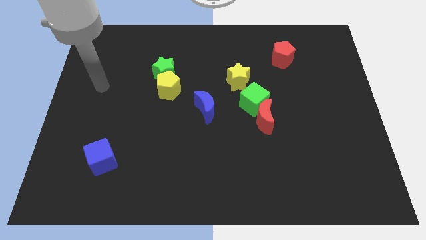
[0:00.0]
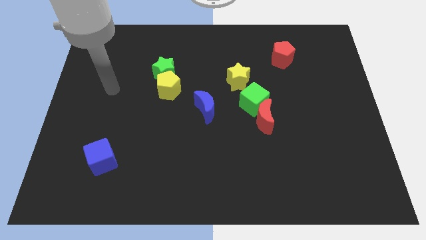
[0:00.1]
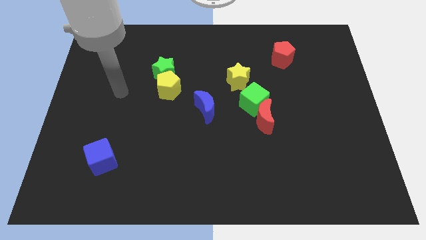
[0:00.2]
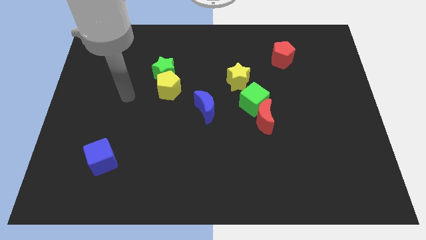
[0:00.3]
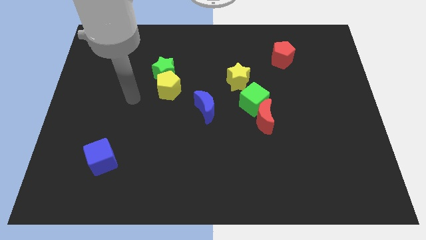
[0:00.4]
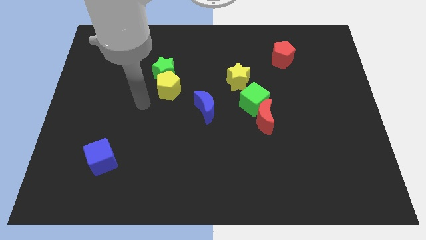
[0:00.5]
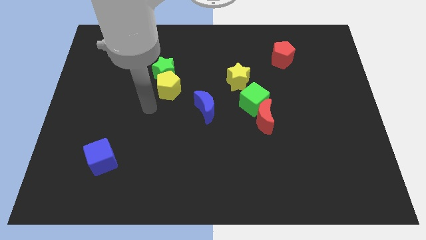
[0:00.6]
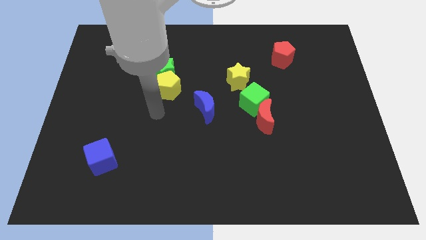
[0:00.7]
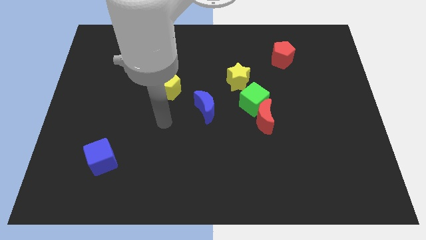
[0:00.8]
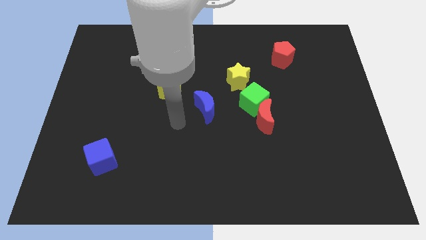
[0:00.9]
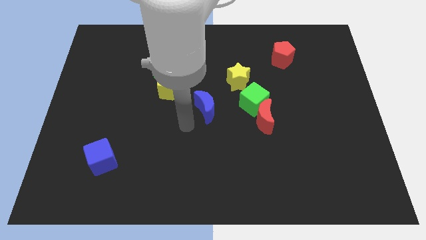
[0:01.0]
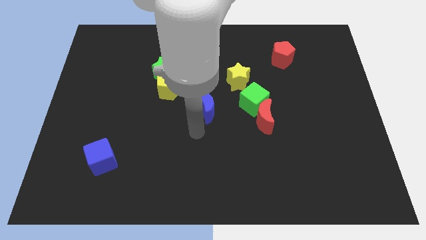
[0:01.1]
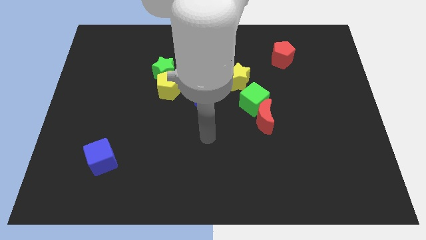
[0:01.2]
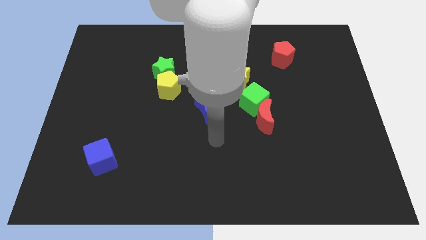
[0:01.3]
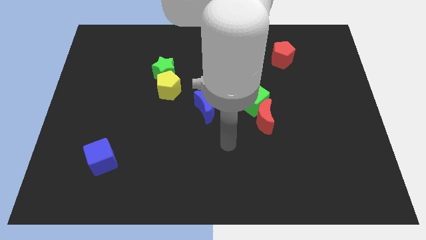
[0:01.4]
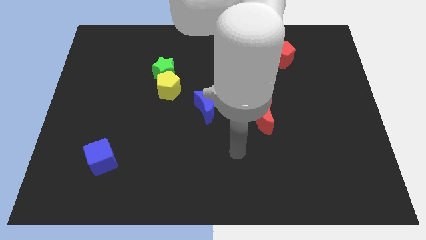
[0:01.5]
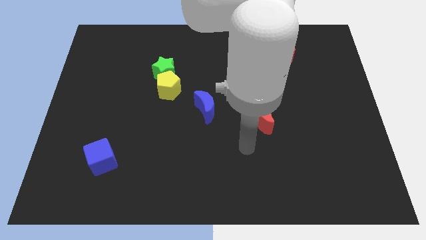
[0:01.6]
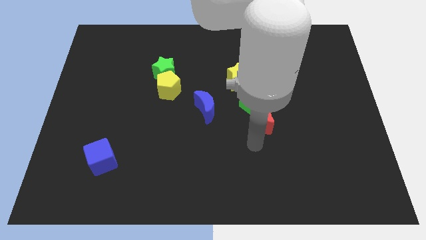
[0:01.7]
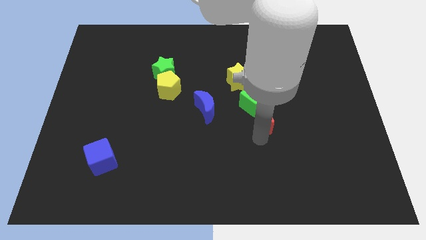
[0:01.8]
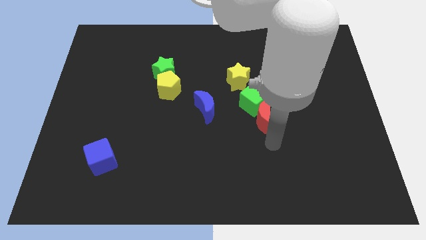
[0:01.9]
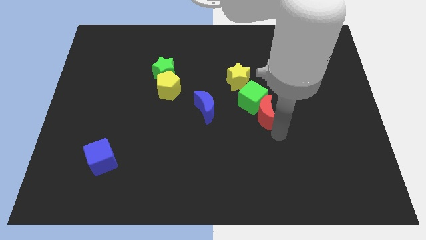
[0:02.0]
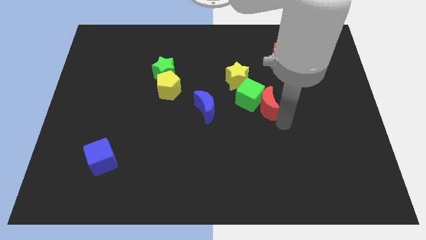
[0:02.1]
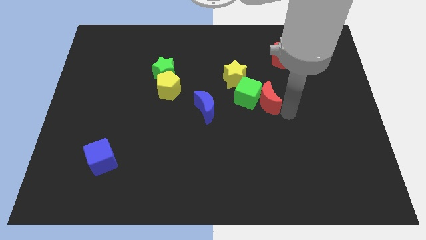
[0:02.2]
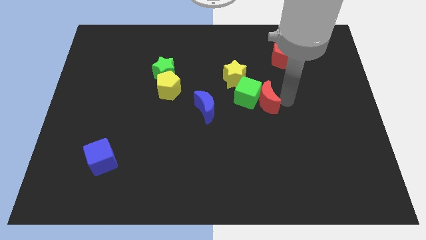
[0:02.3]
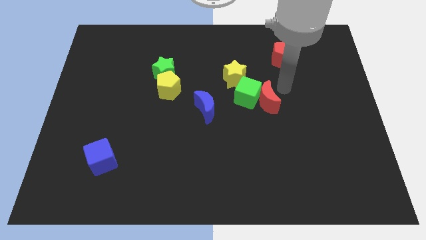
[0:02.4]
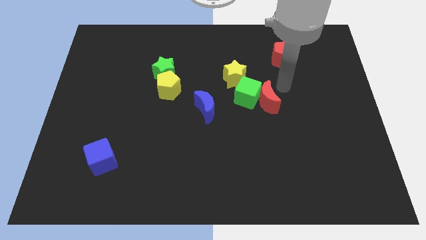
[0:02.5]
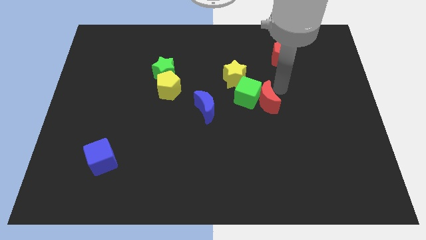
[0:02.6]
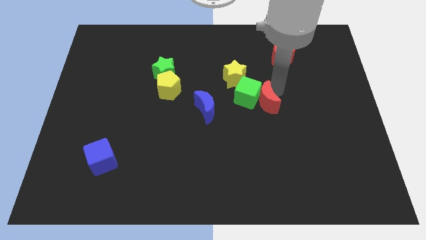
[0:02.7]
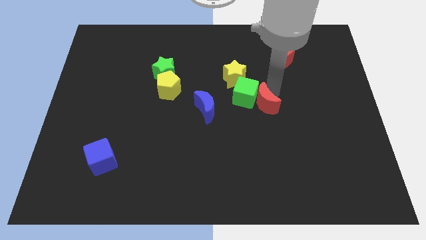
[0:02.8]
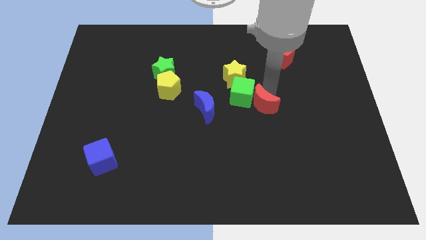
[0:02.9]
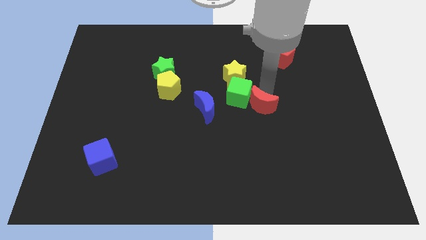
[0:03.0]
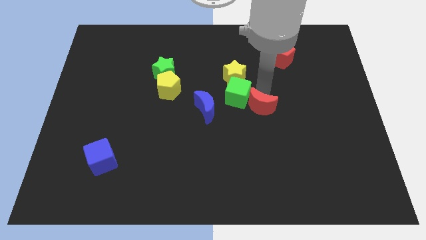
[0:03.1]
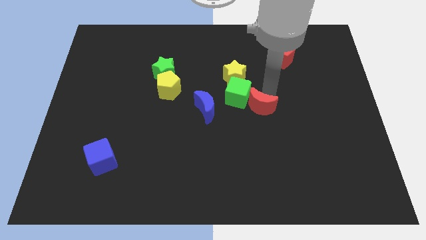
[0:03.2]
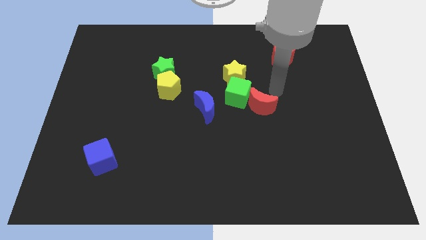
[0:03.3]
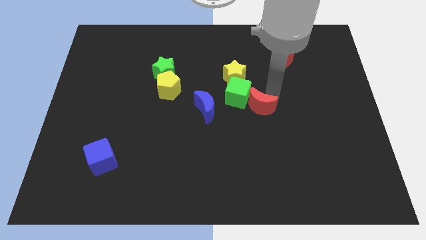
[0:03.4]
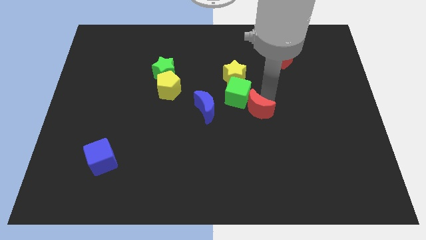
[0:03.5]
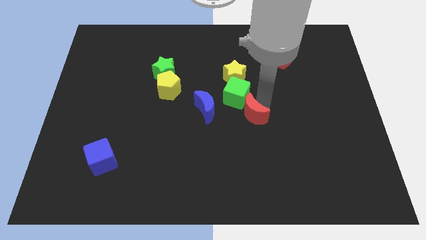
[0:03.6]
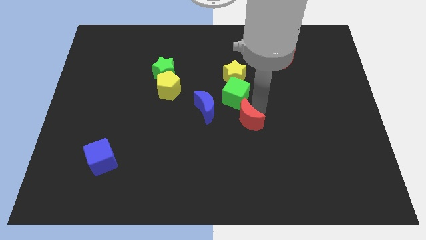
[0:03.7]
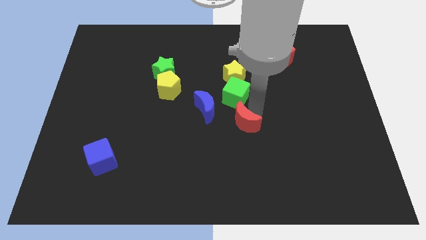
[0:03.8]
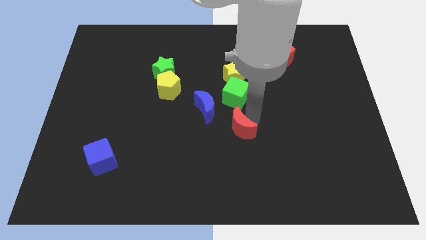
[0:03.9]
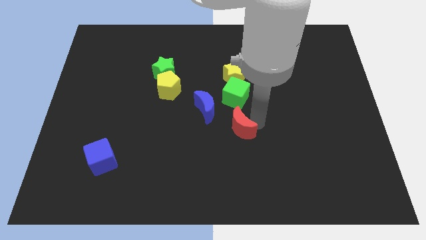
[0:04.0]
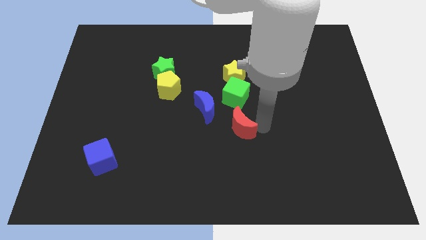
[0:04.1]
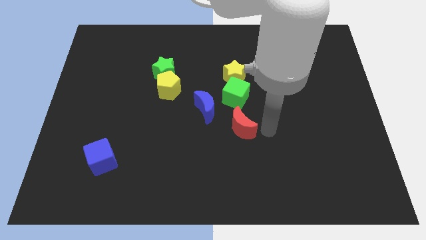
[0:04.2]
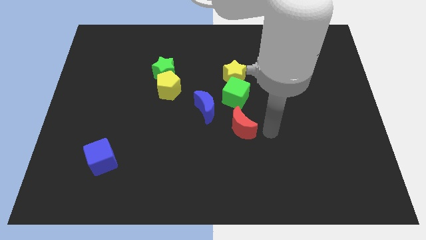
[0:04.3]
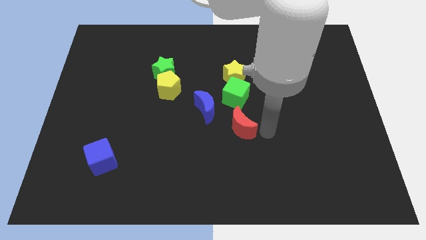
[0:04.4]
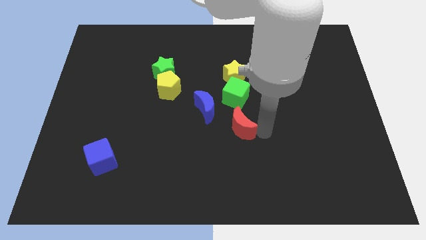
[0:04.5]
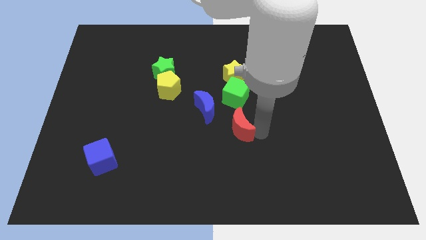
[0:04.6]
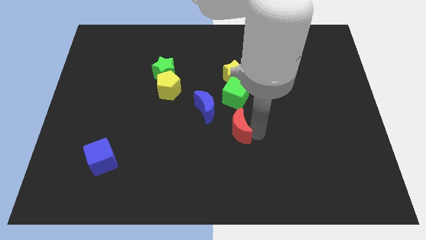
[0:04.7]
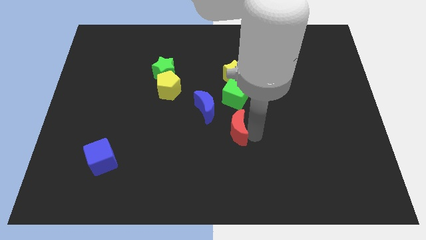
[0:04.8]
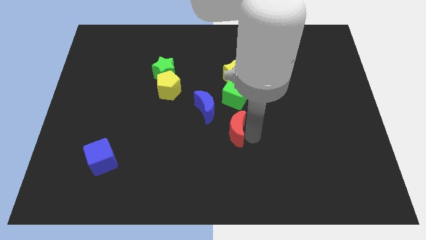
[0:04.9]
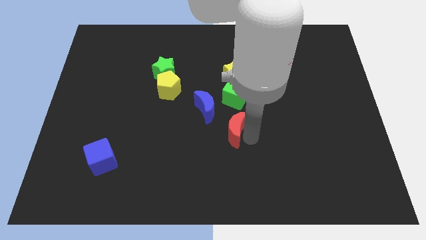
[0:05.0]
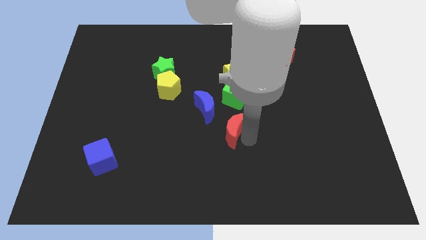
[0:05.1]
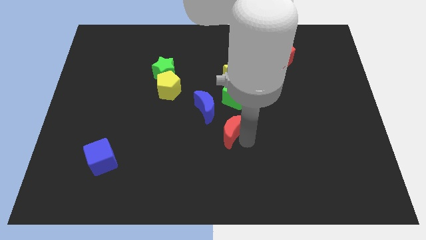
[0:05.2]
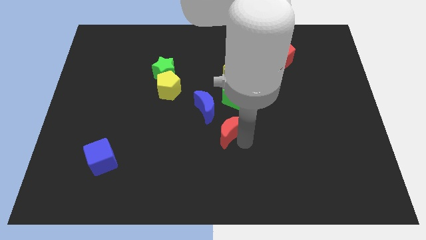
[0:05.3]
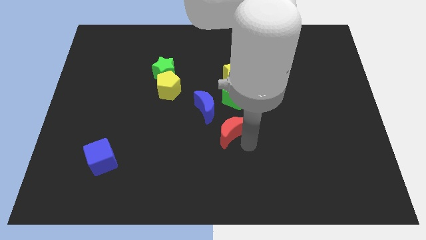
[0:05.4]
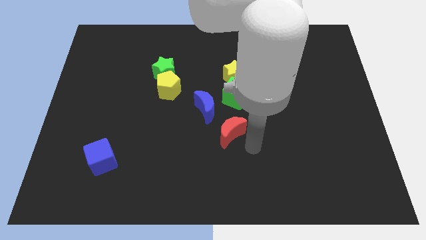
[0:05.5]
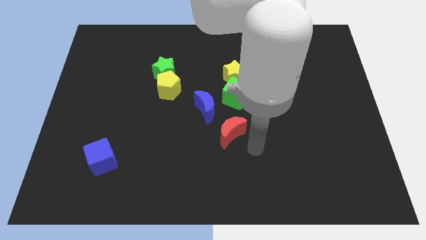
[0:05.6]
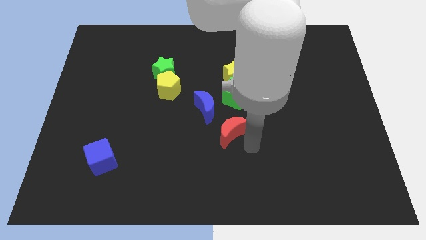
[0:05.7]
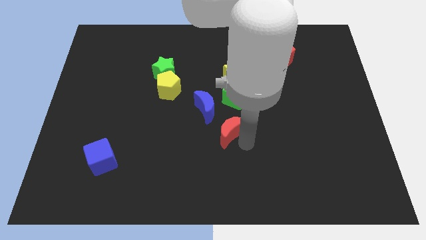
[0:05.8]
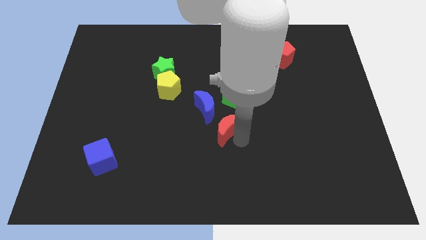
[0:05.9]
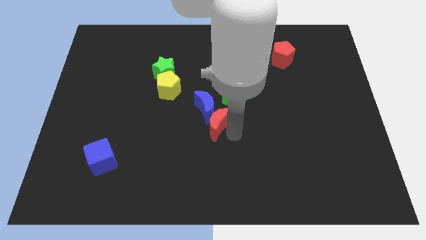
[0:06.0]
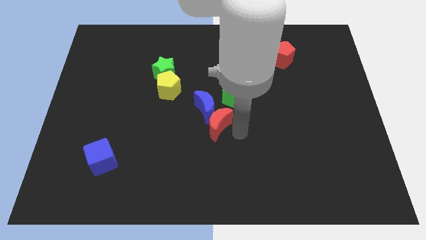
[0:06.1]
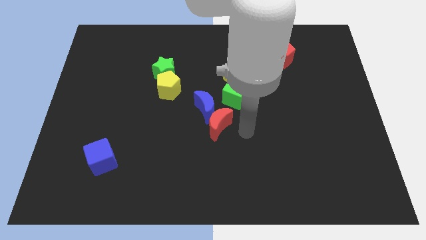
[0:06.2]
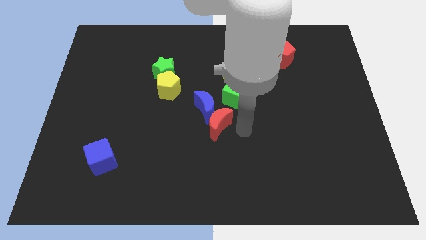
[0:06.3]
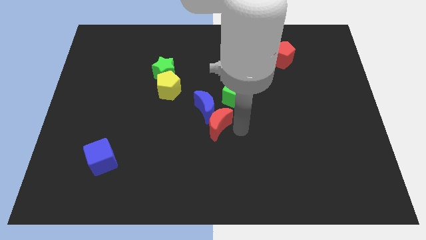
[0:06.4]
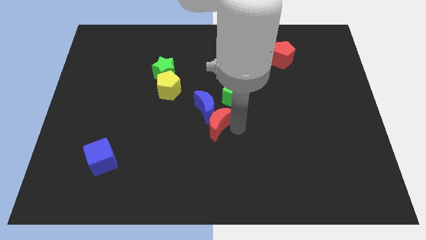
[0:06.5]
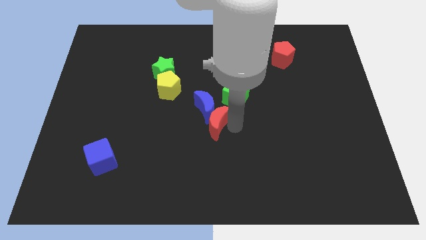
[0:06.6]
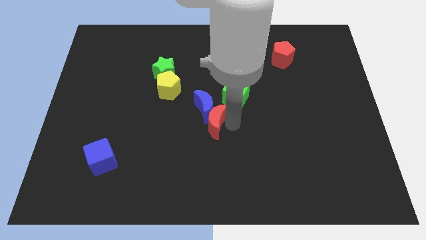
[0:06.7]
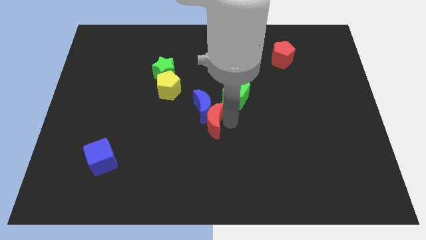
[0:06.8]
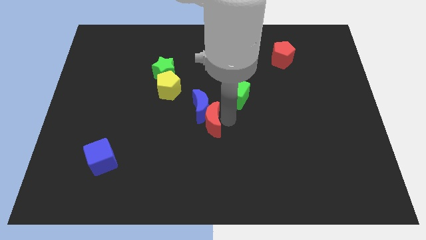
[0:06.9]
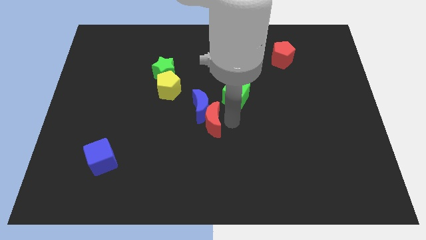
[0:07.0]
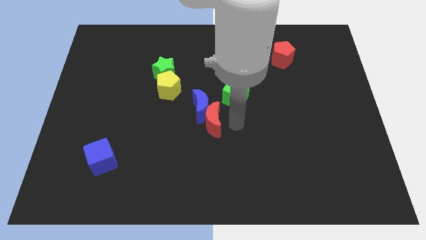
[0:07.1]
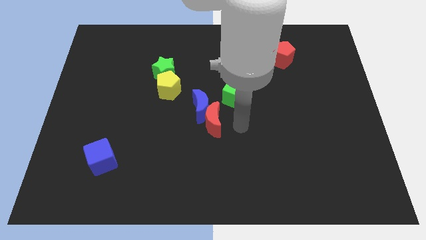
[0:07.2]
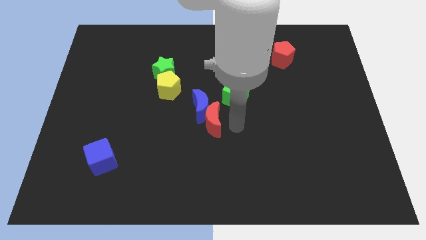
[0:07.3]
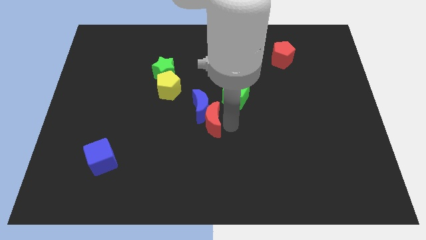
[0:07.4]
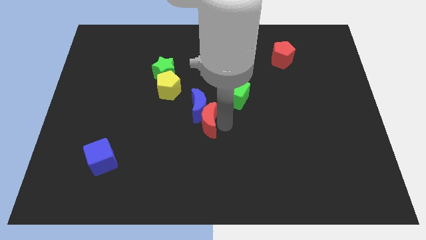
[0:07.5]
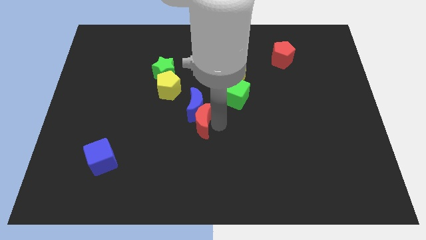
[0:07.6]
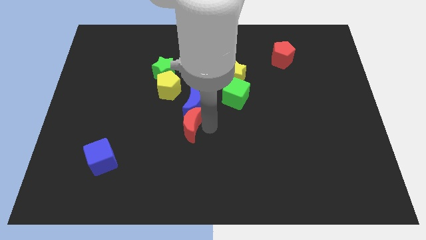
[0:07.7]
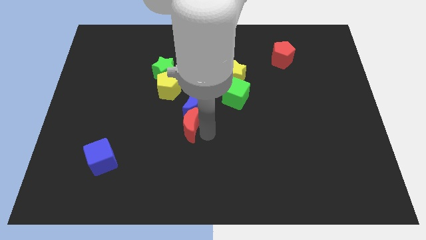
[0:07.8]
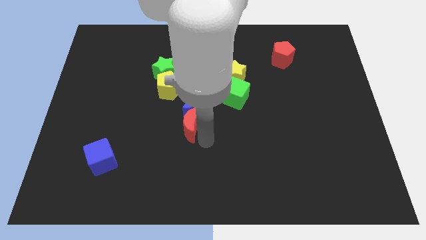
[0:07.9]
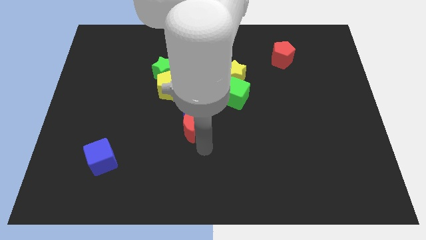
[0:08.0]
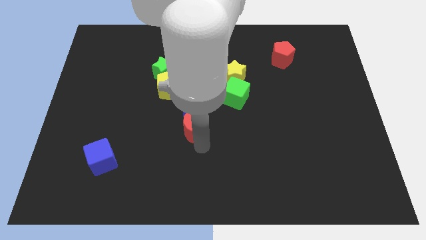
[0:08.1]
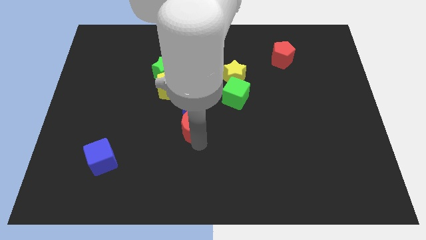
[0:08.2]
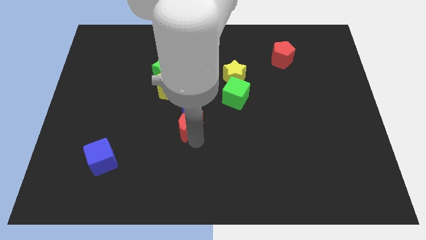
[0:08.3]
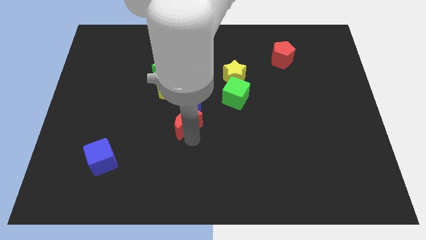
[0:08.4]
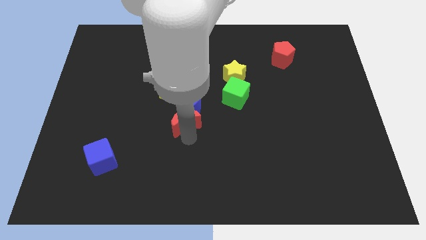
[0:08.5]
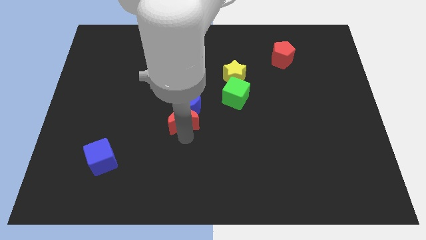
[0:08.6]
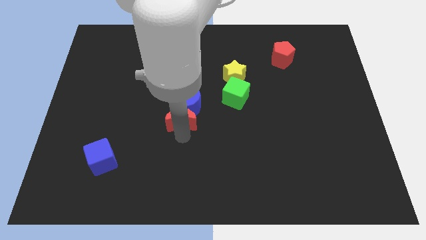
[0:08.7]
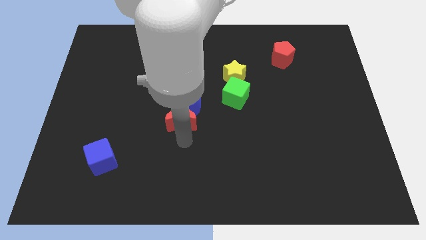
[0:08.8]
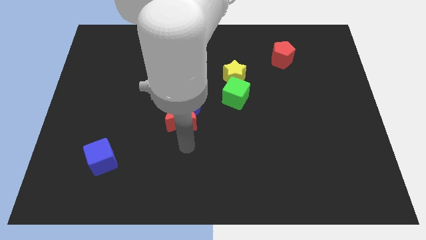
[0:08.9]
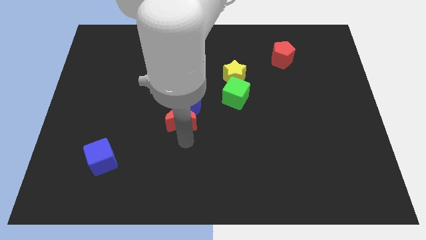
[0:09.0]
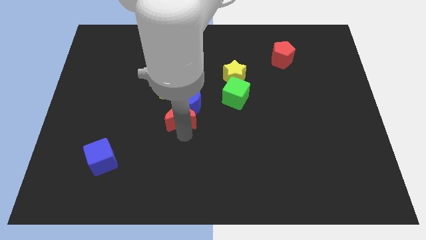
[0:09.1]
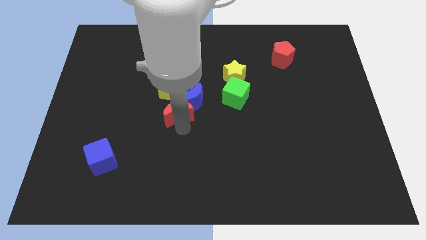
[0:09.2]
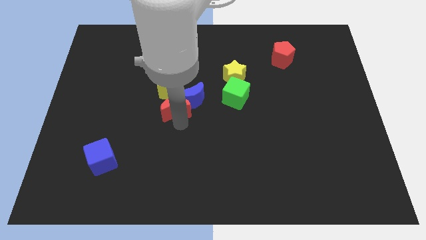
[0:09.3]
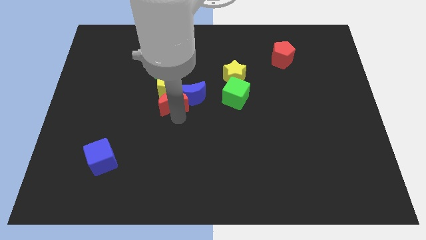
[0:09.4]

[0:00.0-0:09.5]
move the red moon close to the yellow pentagon
